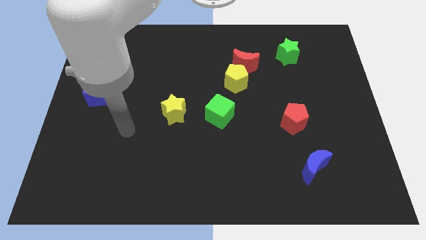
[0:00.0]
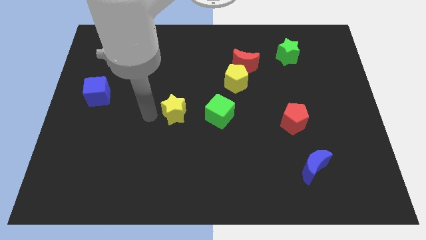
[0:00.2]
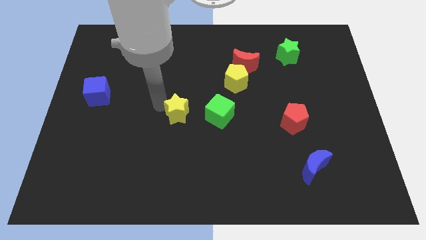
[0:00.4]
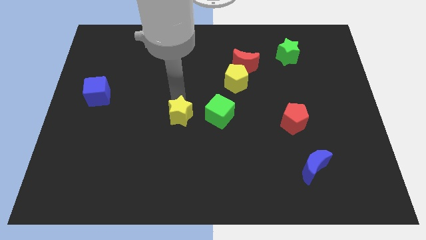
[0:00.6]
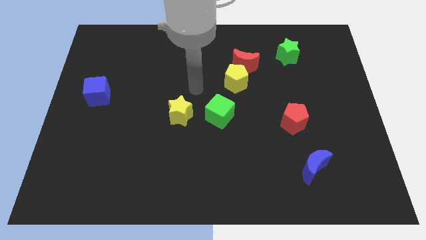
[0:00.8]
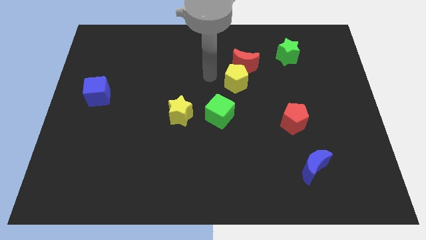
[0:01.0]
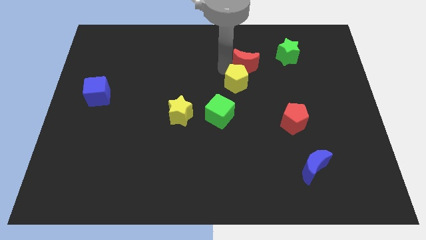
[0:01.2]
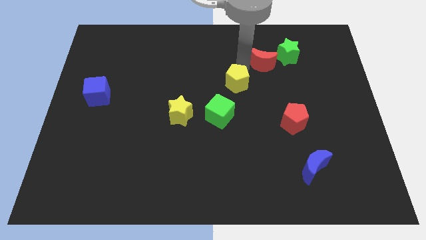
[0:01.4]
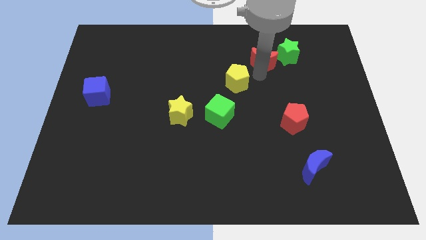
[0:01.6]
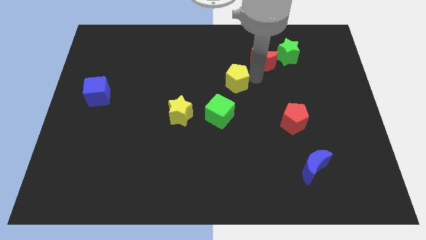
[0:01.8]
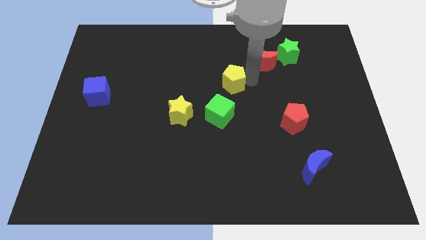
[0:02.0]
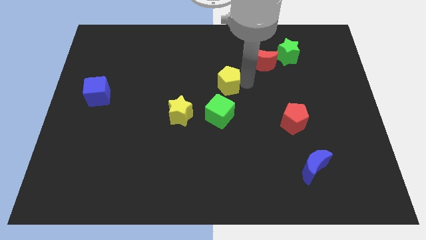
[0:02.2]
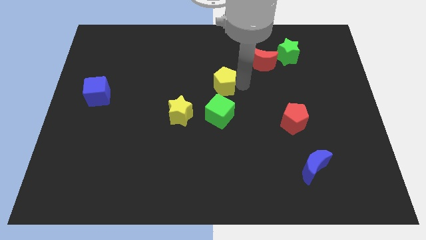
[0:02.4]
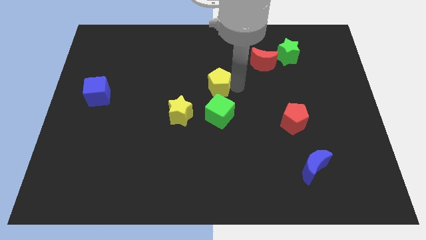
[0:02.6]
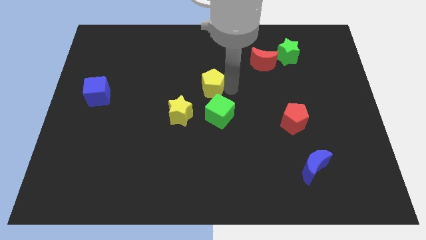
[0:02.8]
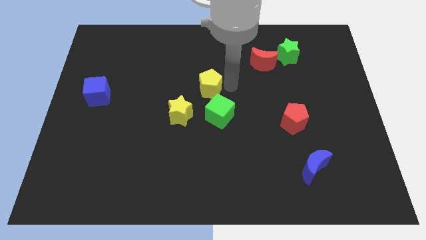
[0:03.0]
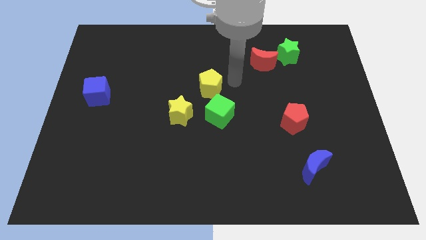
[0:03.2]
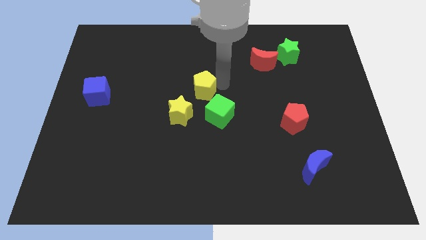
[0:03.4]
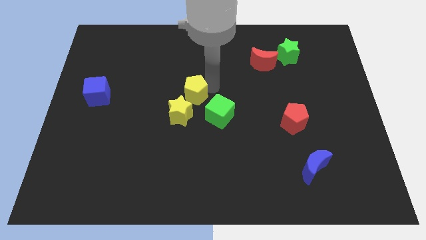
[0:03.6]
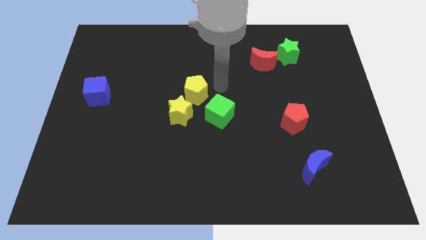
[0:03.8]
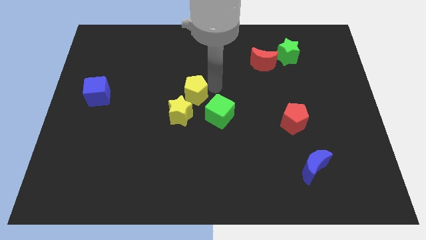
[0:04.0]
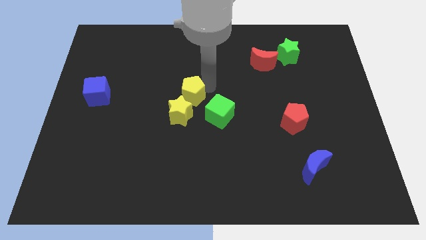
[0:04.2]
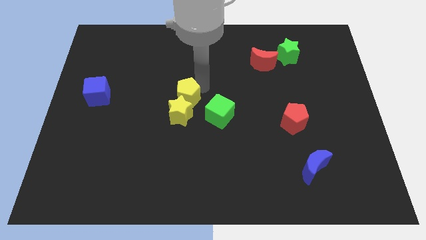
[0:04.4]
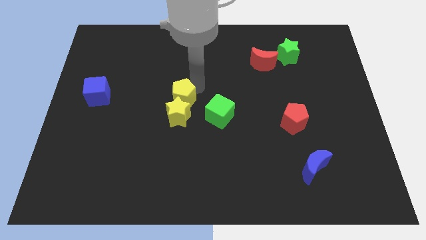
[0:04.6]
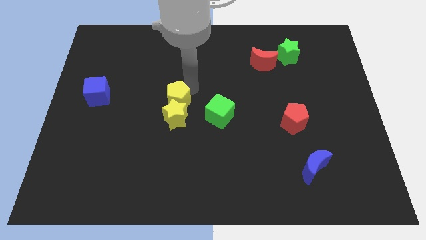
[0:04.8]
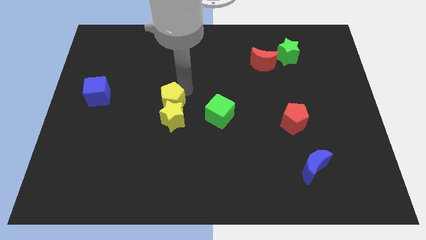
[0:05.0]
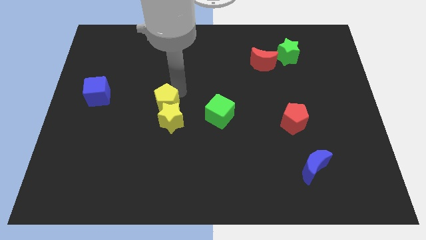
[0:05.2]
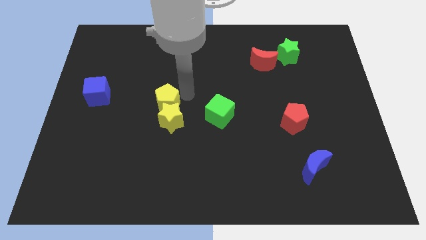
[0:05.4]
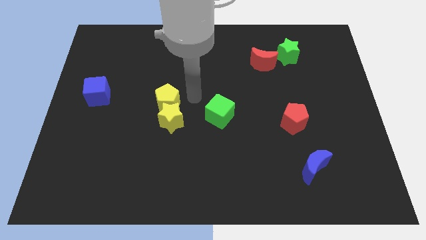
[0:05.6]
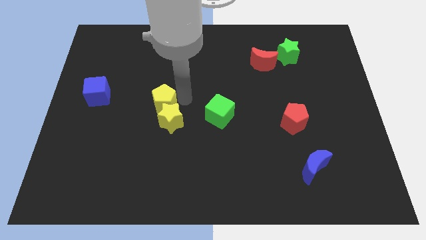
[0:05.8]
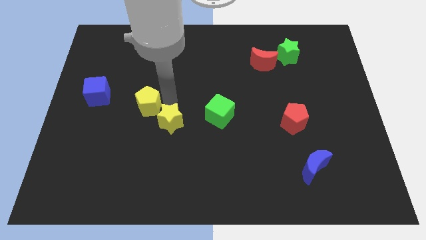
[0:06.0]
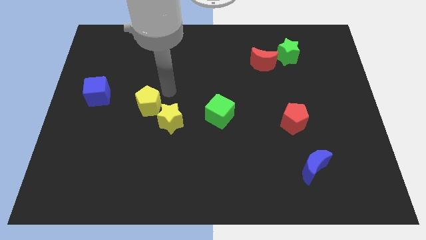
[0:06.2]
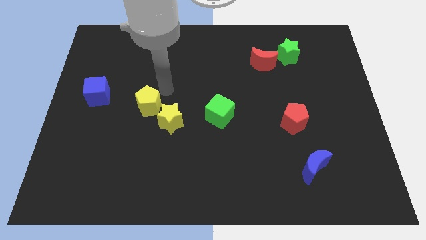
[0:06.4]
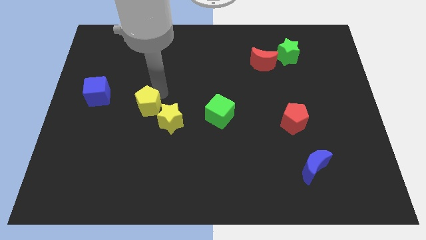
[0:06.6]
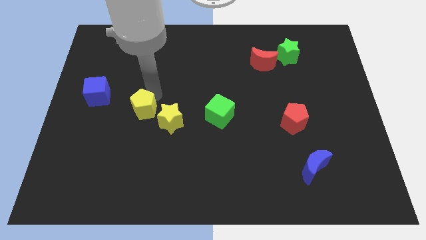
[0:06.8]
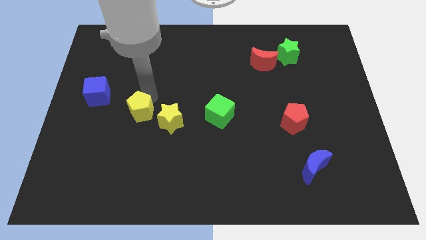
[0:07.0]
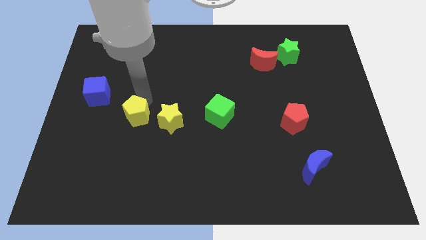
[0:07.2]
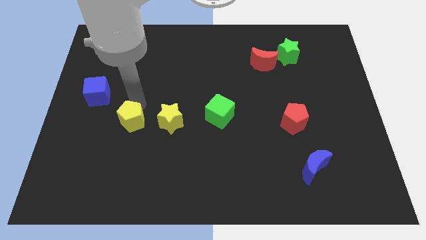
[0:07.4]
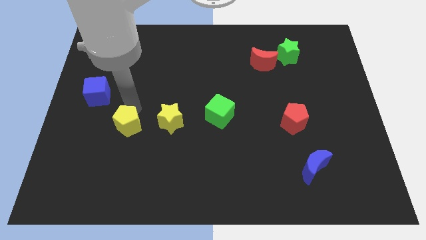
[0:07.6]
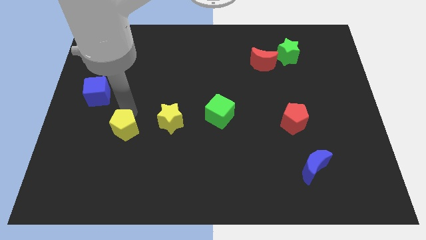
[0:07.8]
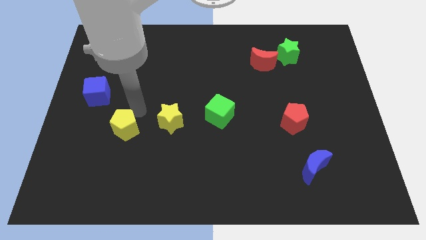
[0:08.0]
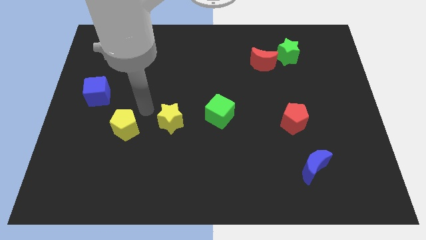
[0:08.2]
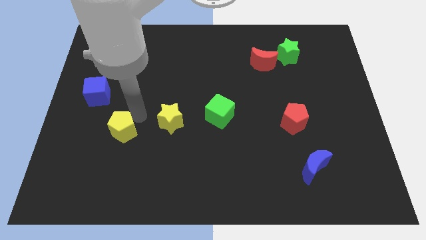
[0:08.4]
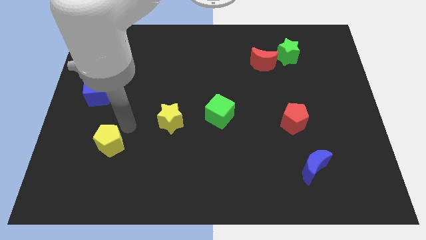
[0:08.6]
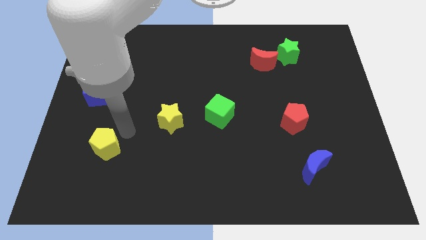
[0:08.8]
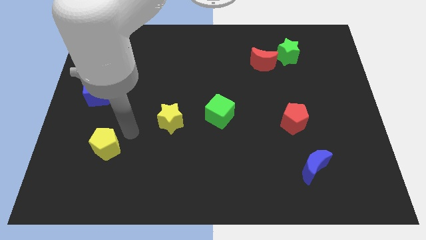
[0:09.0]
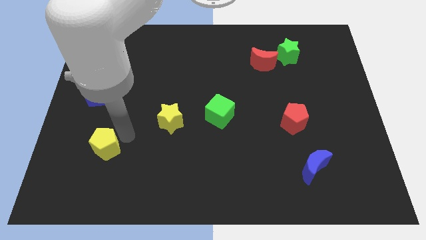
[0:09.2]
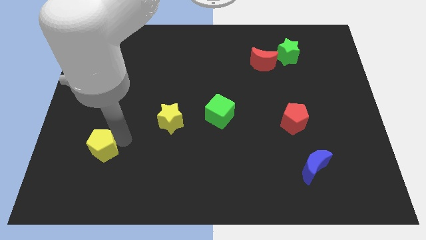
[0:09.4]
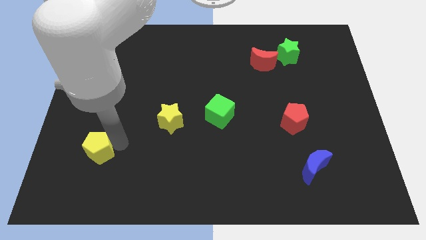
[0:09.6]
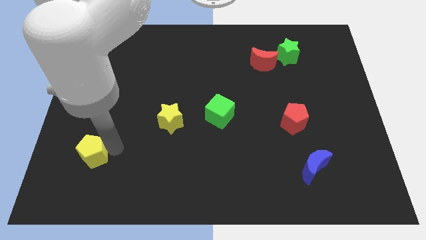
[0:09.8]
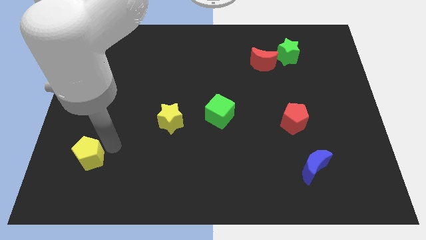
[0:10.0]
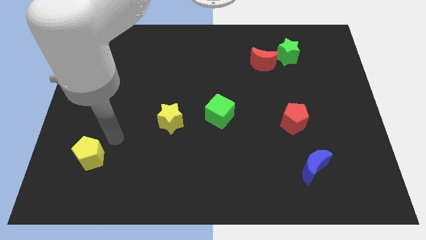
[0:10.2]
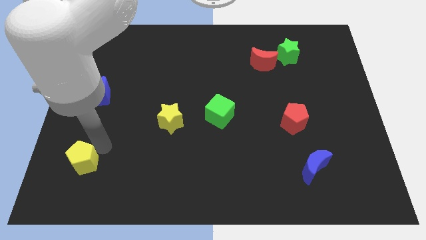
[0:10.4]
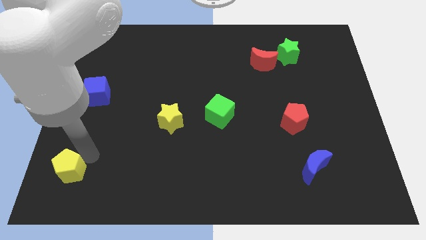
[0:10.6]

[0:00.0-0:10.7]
push the yellow pentagon to the bottom left corner
